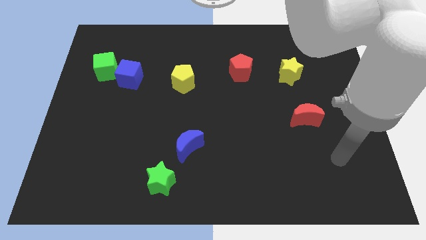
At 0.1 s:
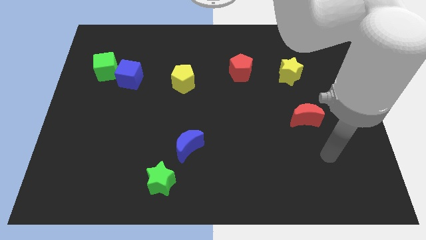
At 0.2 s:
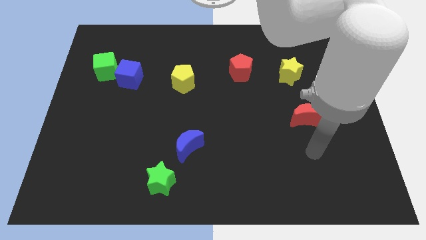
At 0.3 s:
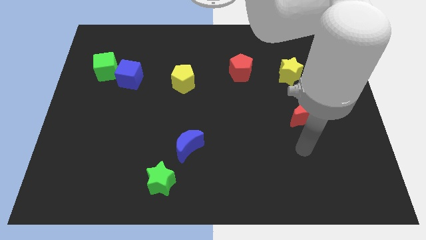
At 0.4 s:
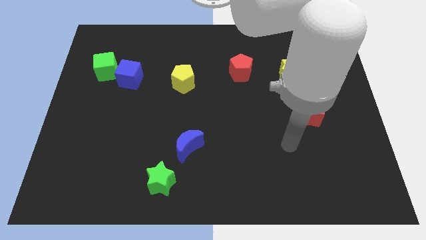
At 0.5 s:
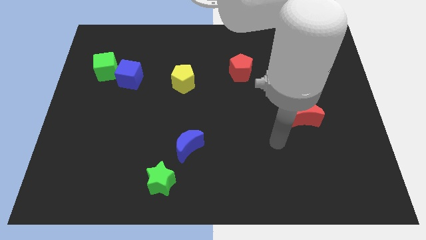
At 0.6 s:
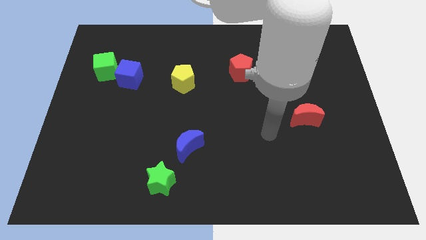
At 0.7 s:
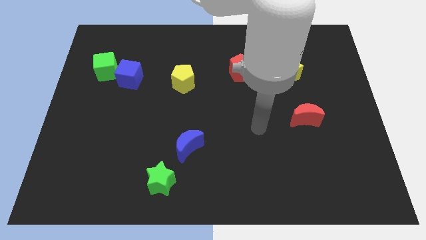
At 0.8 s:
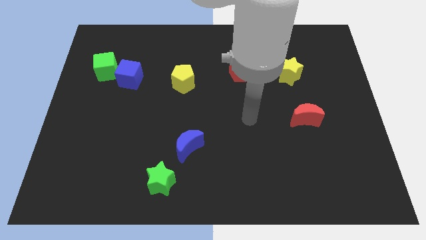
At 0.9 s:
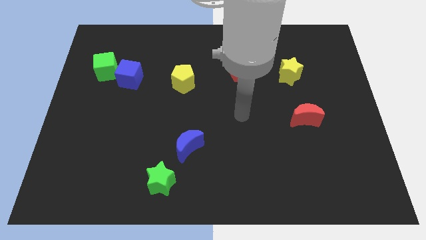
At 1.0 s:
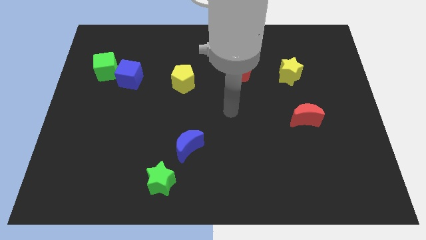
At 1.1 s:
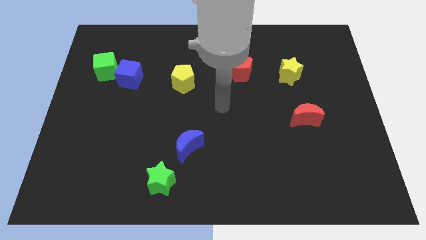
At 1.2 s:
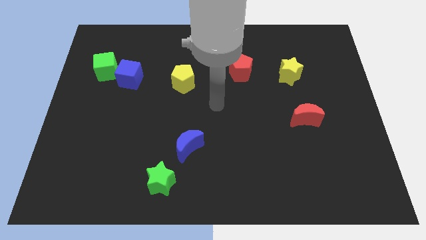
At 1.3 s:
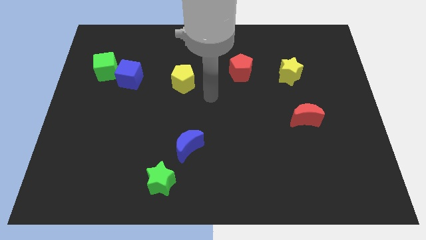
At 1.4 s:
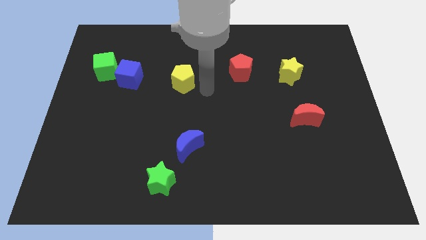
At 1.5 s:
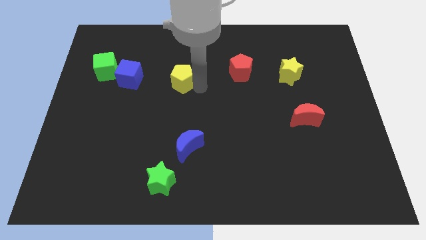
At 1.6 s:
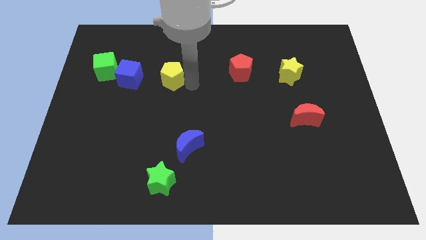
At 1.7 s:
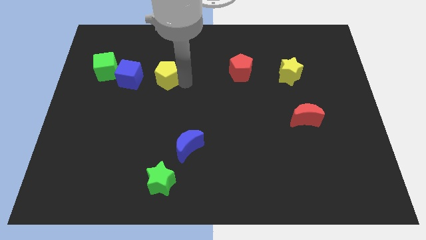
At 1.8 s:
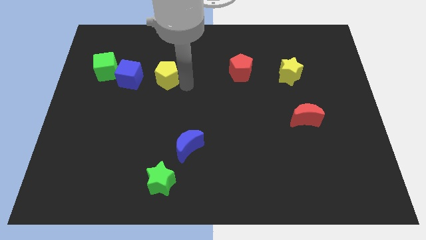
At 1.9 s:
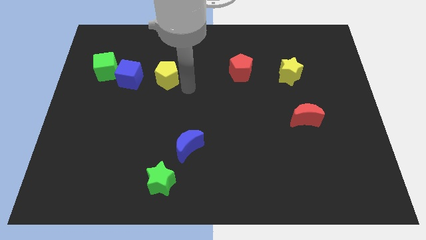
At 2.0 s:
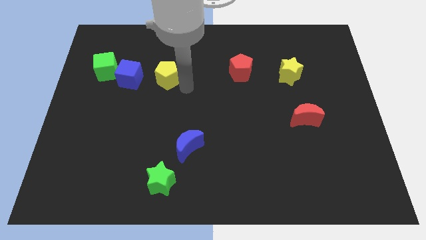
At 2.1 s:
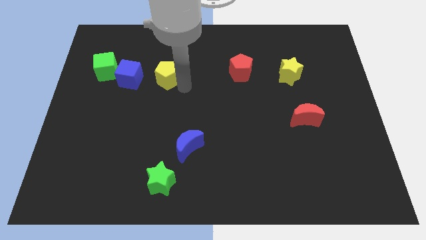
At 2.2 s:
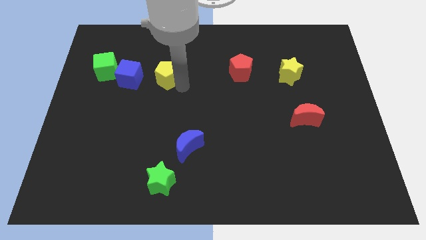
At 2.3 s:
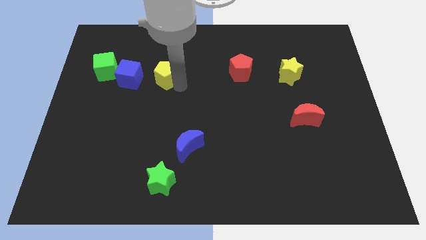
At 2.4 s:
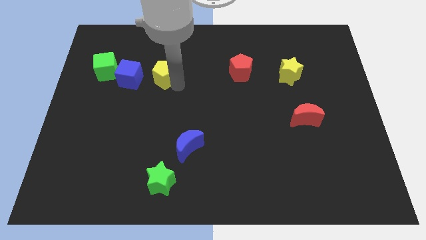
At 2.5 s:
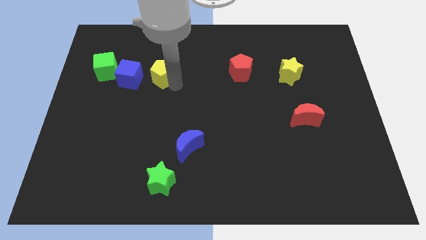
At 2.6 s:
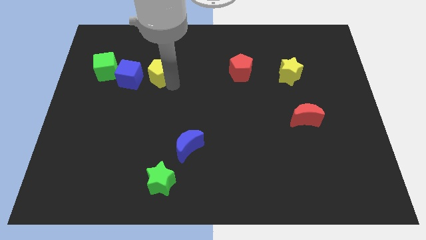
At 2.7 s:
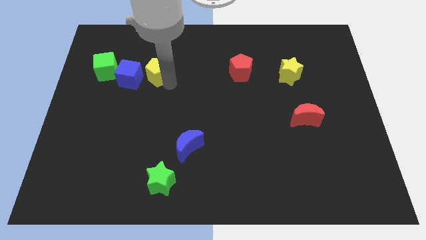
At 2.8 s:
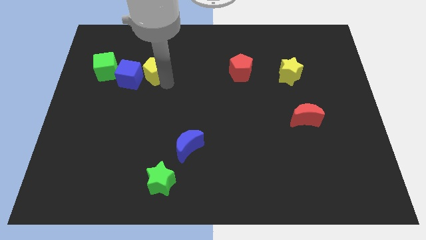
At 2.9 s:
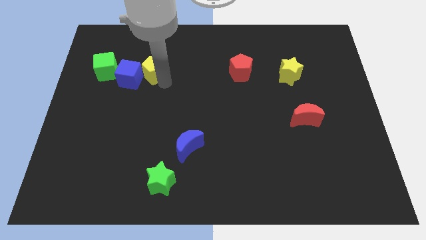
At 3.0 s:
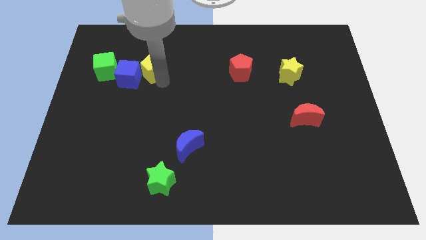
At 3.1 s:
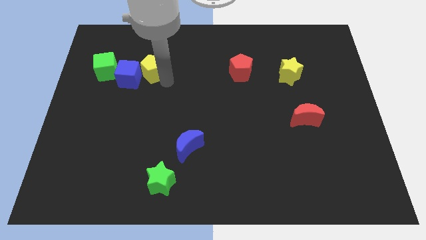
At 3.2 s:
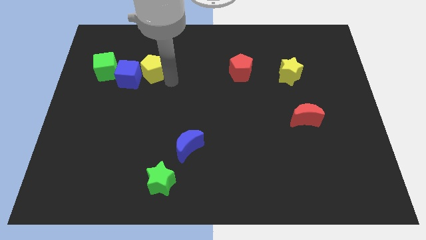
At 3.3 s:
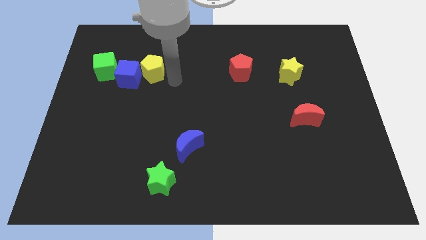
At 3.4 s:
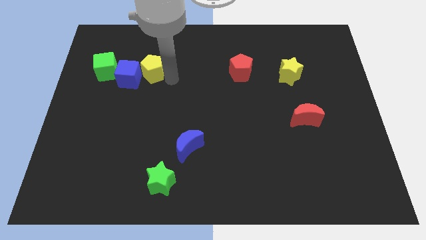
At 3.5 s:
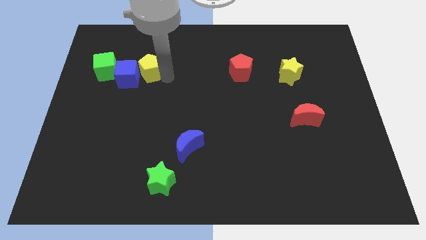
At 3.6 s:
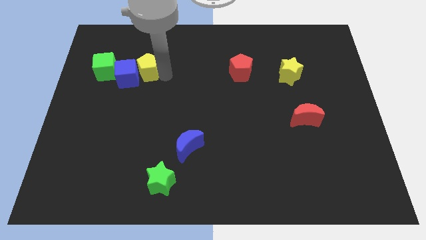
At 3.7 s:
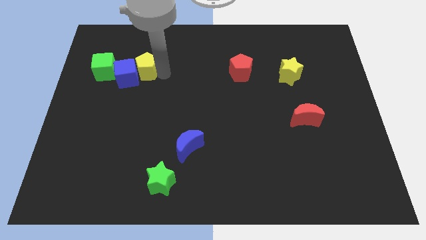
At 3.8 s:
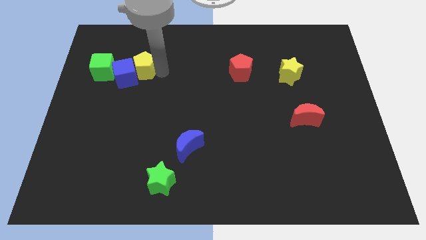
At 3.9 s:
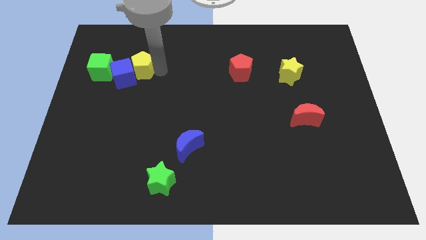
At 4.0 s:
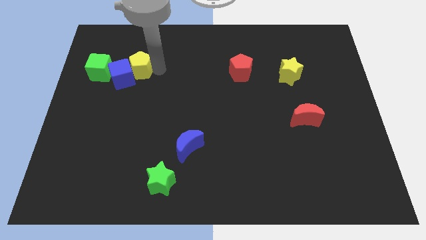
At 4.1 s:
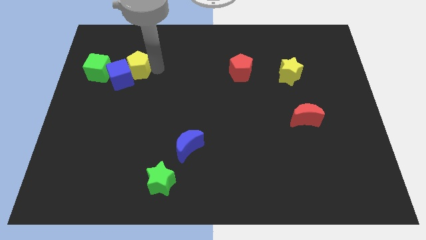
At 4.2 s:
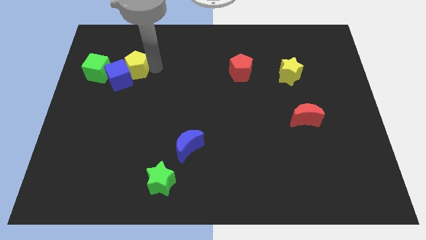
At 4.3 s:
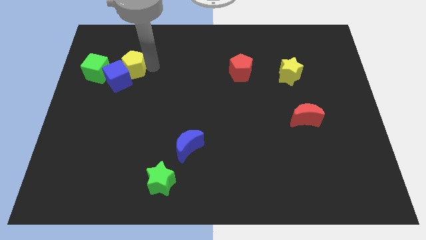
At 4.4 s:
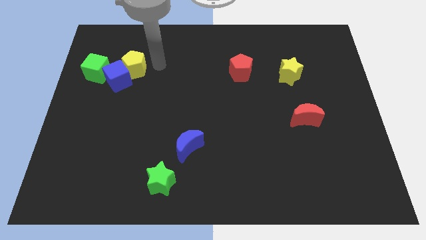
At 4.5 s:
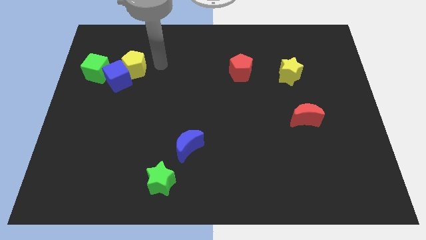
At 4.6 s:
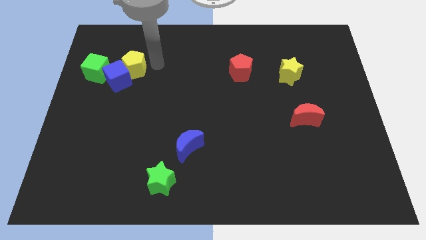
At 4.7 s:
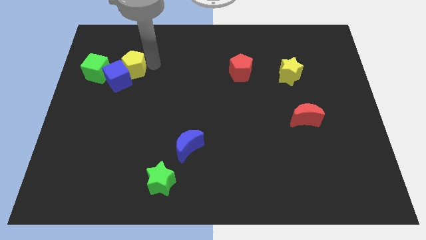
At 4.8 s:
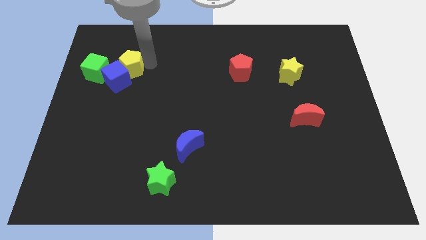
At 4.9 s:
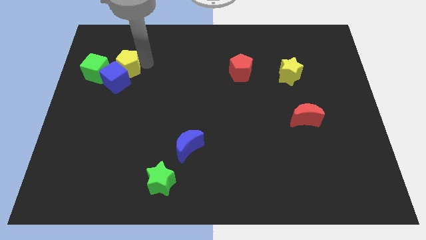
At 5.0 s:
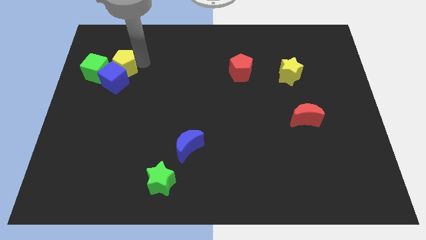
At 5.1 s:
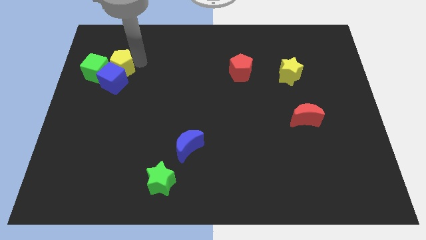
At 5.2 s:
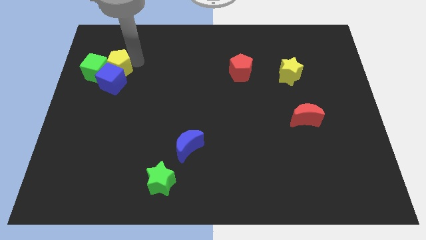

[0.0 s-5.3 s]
push the yellow pentagon towards the green cube
